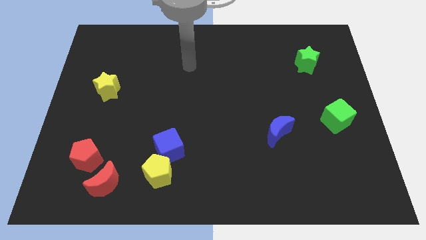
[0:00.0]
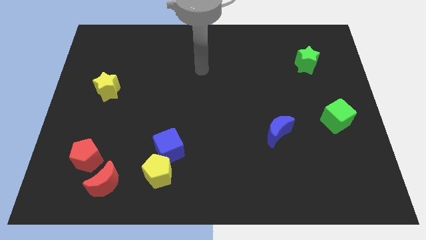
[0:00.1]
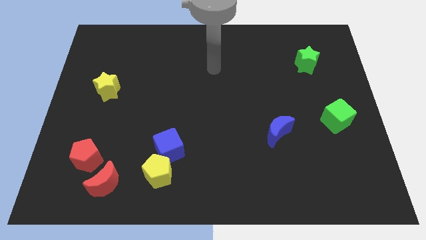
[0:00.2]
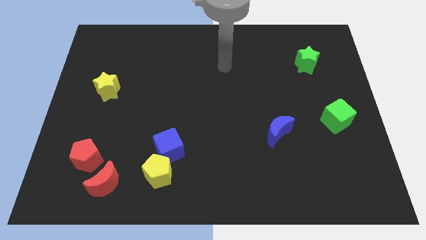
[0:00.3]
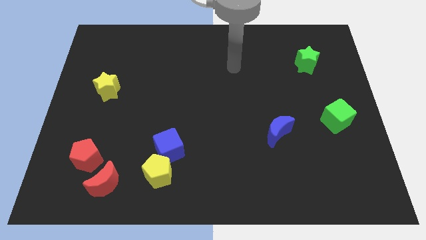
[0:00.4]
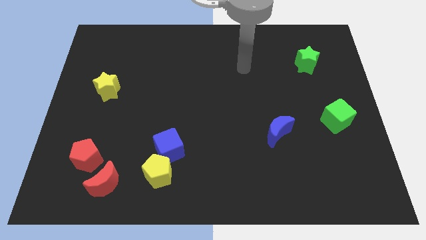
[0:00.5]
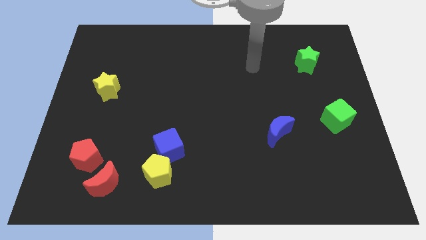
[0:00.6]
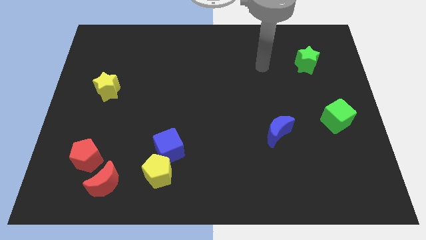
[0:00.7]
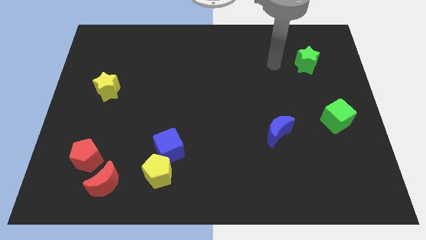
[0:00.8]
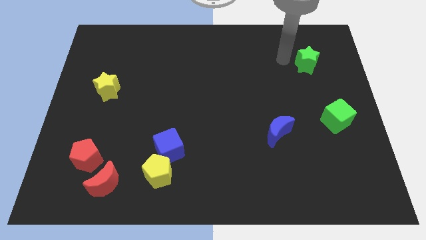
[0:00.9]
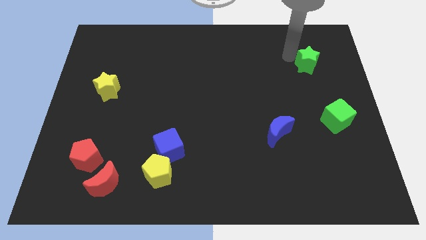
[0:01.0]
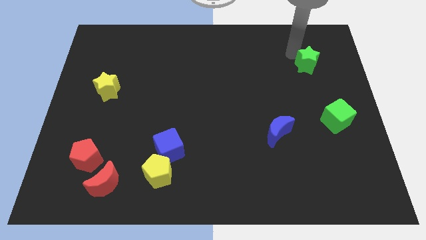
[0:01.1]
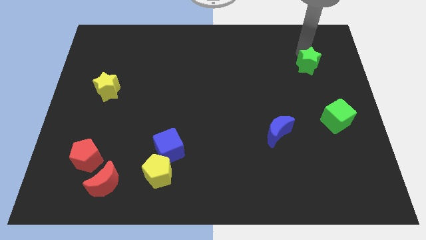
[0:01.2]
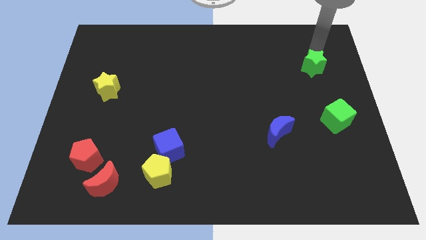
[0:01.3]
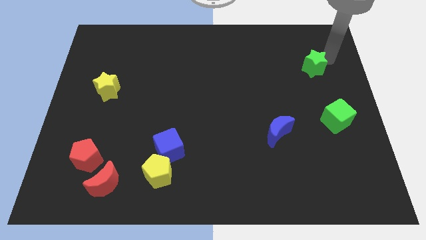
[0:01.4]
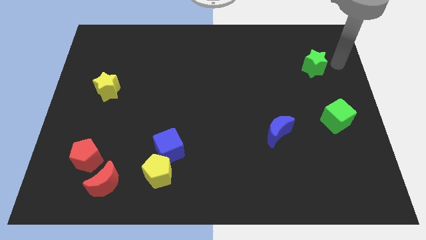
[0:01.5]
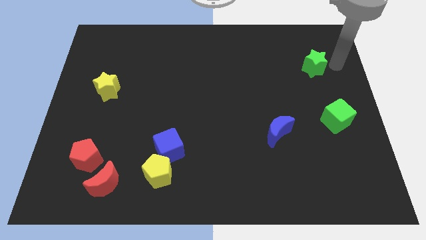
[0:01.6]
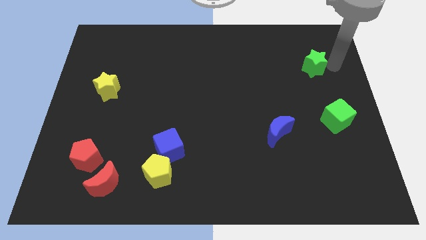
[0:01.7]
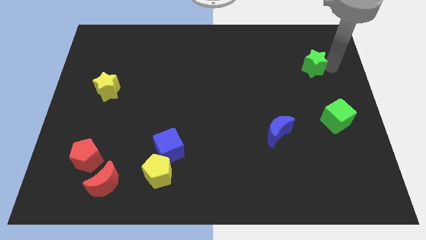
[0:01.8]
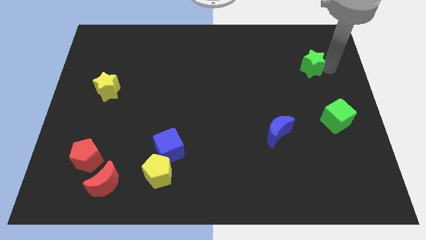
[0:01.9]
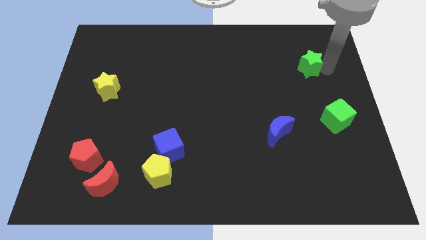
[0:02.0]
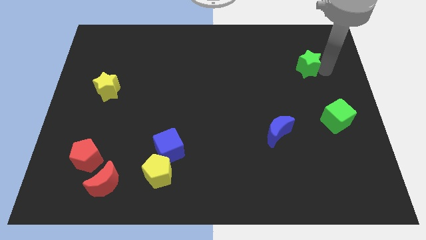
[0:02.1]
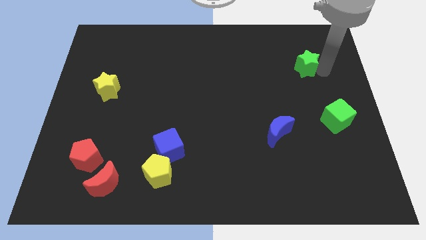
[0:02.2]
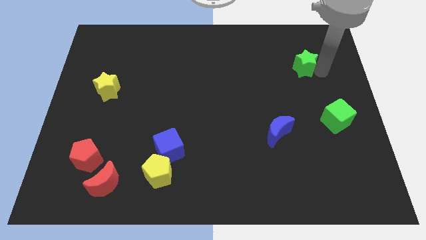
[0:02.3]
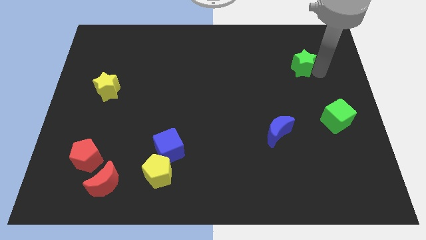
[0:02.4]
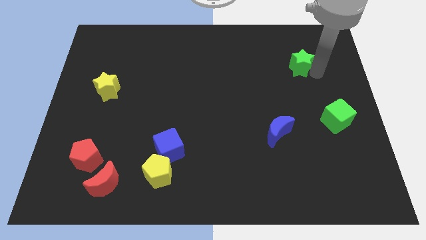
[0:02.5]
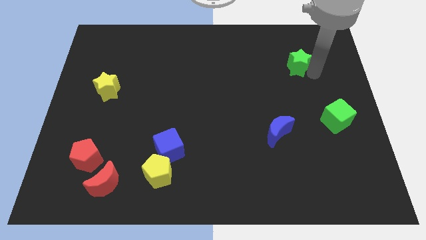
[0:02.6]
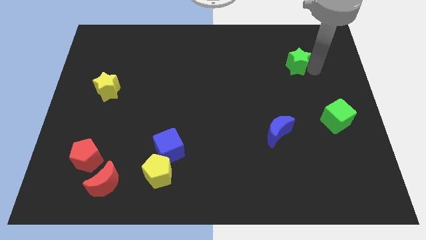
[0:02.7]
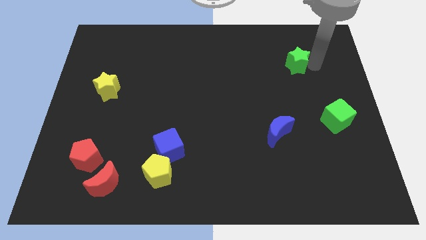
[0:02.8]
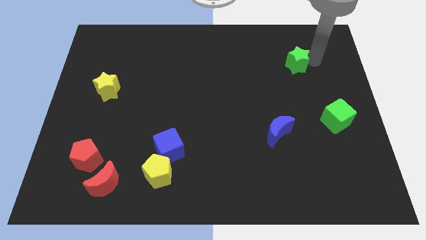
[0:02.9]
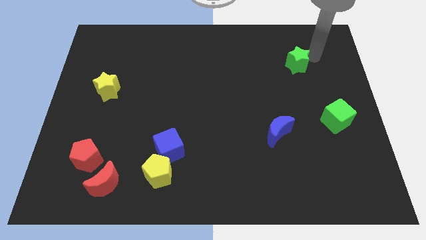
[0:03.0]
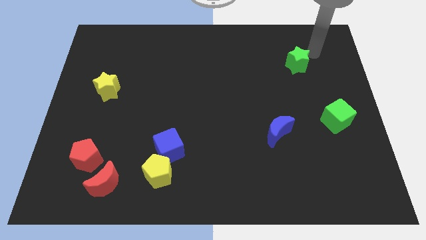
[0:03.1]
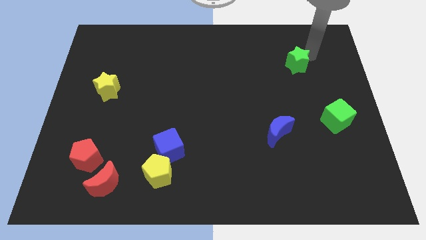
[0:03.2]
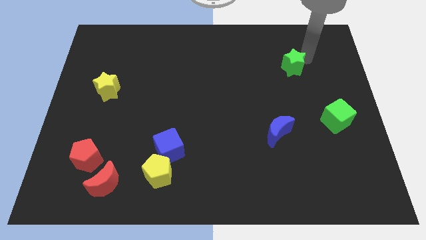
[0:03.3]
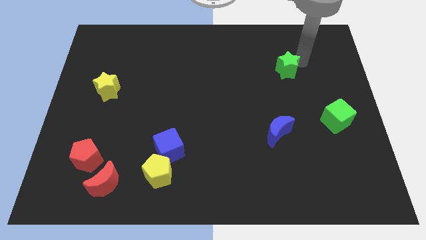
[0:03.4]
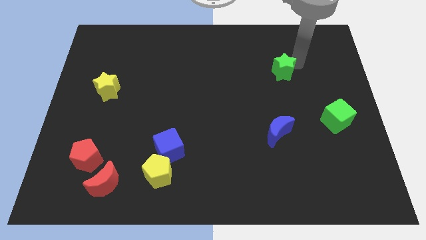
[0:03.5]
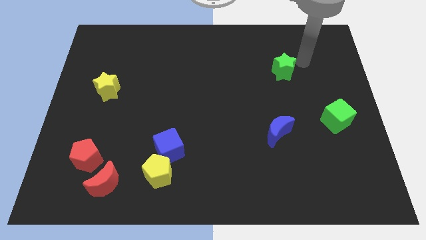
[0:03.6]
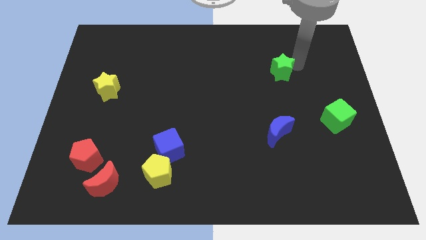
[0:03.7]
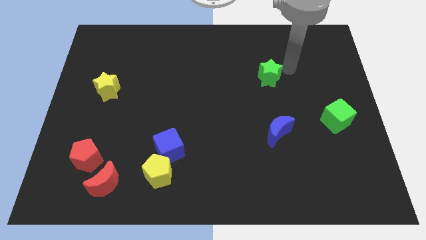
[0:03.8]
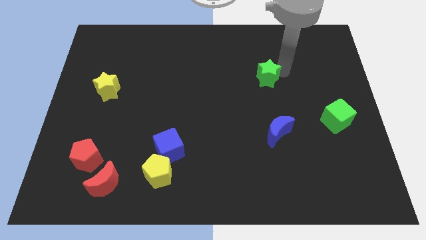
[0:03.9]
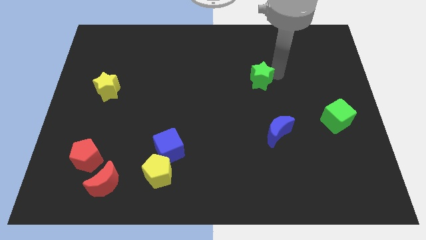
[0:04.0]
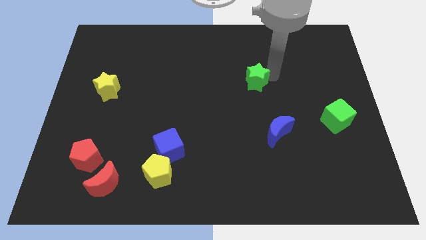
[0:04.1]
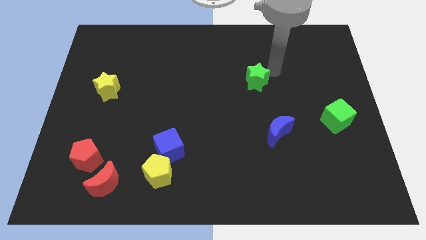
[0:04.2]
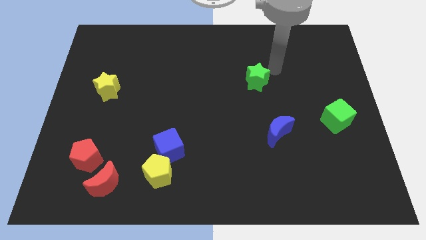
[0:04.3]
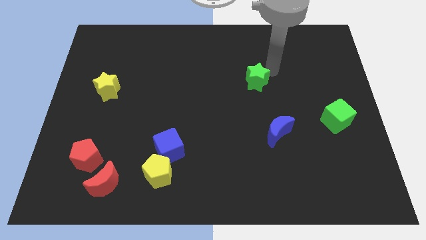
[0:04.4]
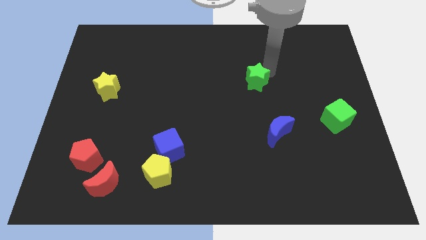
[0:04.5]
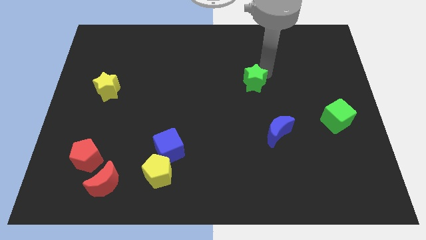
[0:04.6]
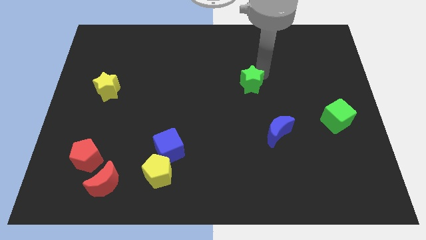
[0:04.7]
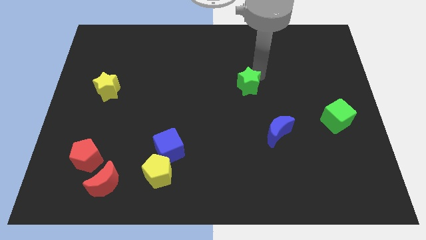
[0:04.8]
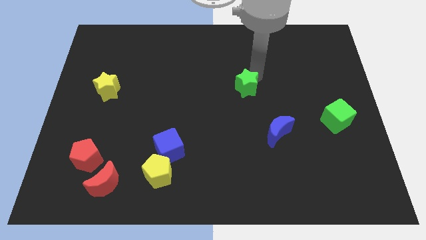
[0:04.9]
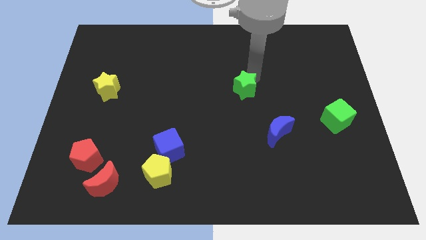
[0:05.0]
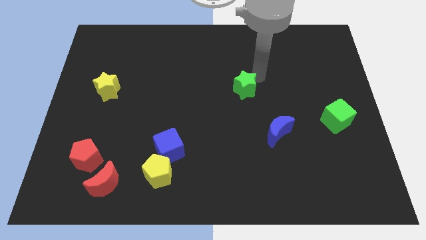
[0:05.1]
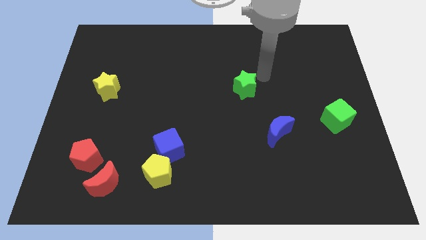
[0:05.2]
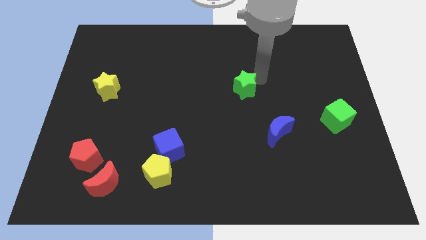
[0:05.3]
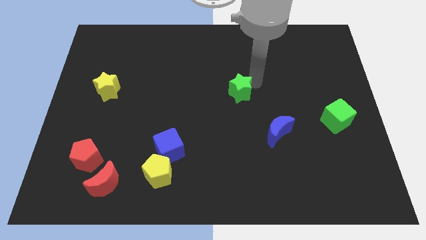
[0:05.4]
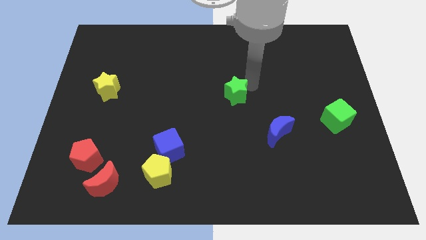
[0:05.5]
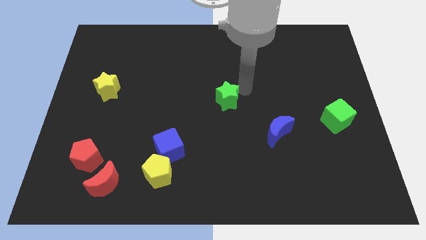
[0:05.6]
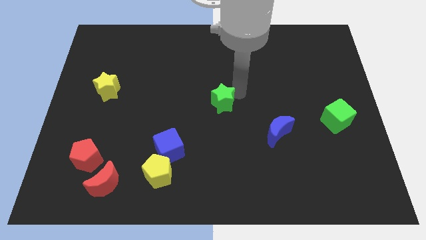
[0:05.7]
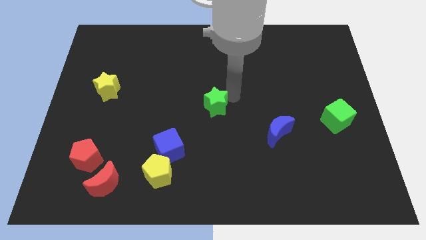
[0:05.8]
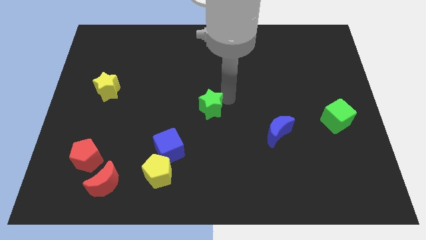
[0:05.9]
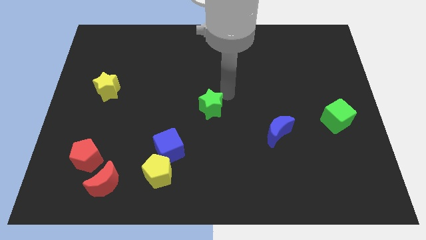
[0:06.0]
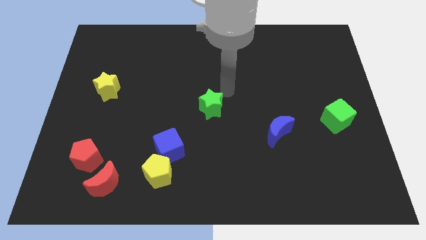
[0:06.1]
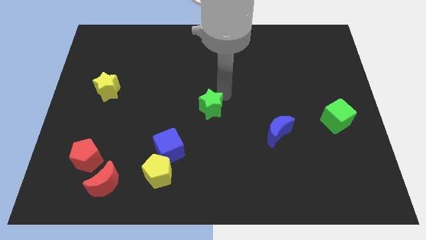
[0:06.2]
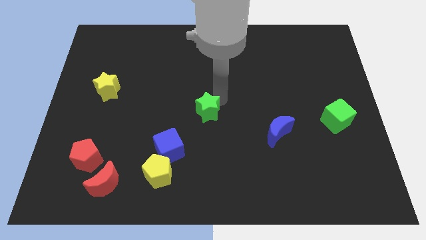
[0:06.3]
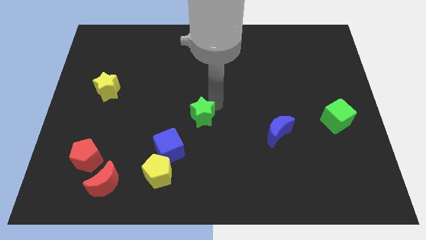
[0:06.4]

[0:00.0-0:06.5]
move the green star to the top right side of the blue cube

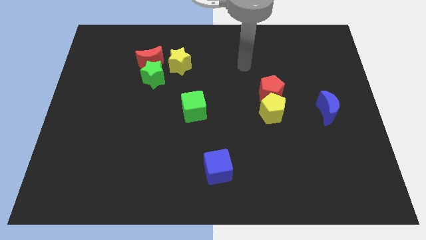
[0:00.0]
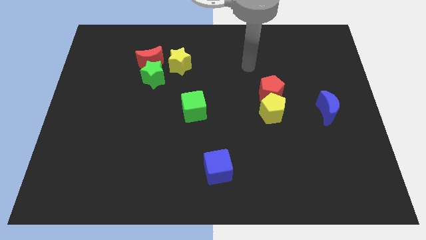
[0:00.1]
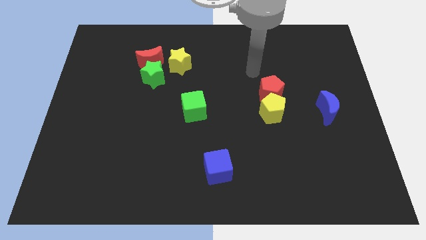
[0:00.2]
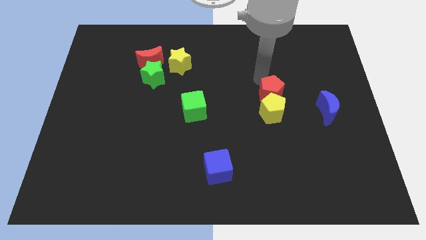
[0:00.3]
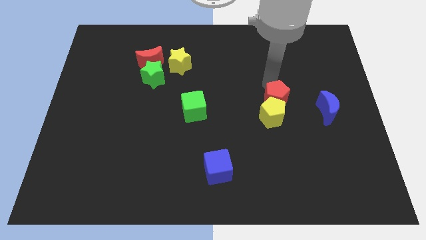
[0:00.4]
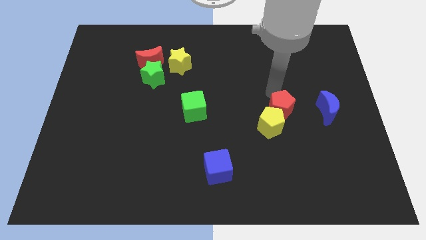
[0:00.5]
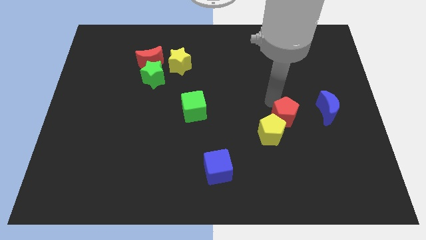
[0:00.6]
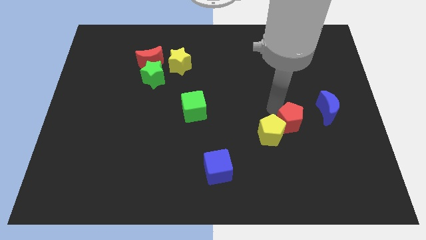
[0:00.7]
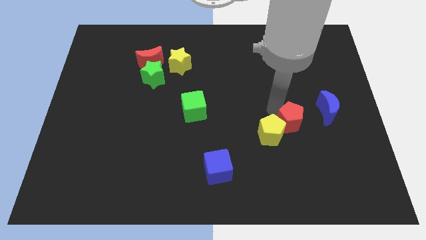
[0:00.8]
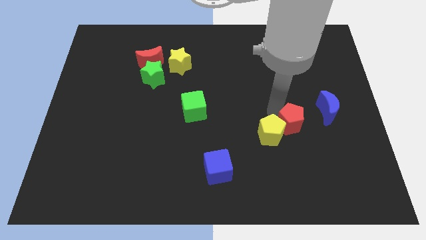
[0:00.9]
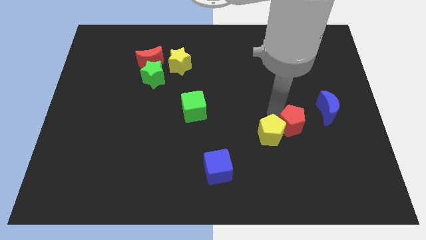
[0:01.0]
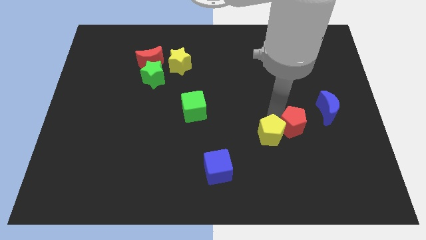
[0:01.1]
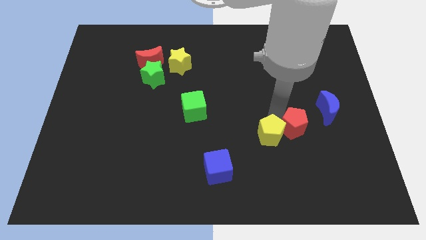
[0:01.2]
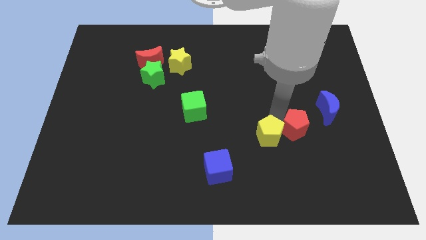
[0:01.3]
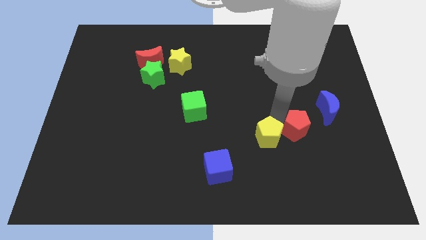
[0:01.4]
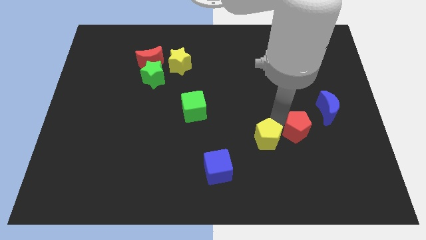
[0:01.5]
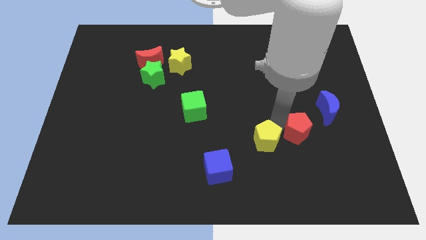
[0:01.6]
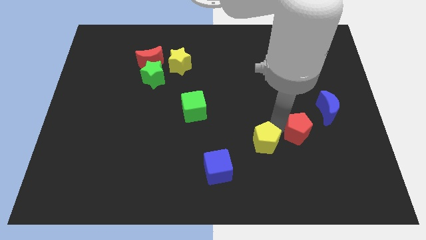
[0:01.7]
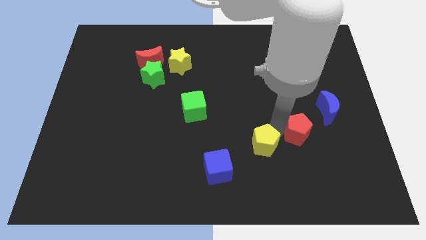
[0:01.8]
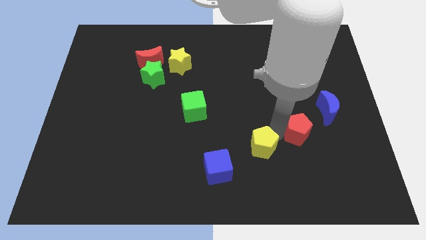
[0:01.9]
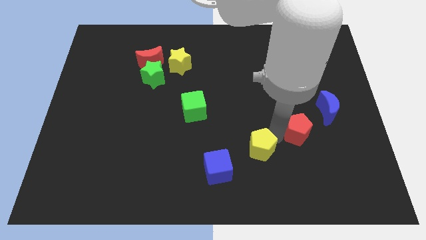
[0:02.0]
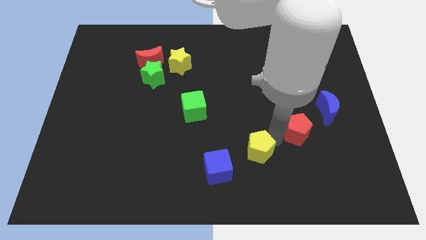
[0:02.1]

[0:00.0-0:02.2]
put the yellow pentagon to the right of the blue cube
